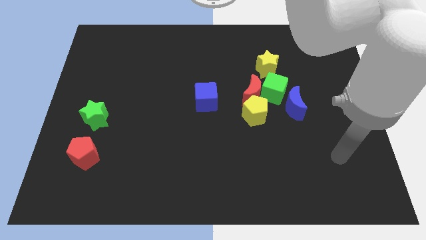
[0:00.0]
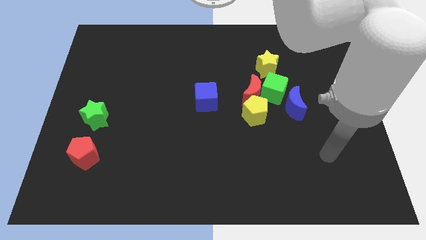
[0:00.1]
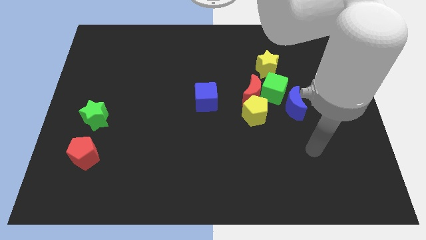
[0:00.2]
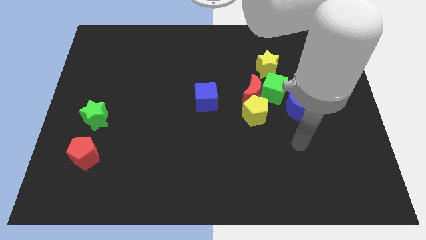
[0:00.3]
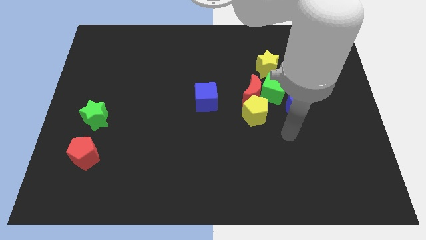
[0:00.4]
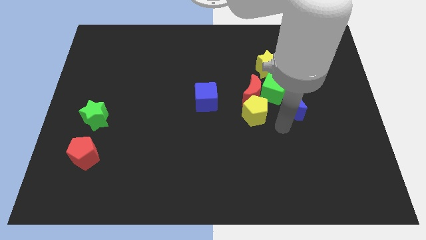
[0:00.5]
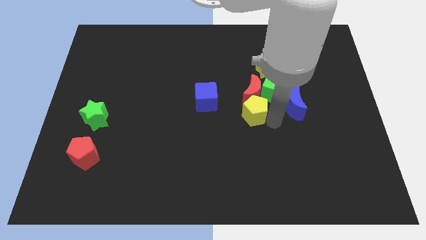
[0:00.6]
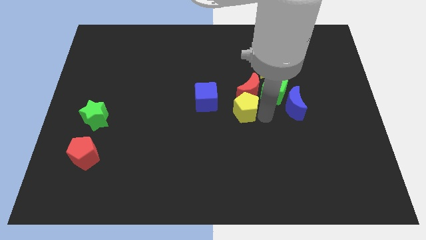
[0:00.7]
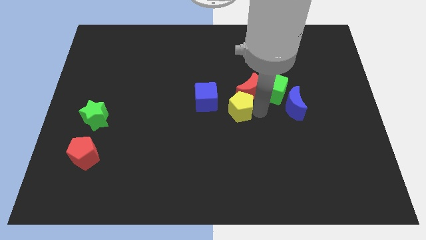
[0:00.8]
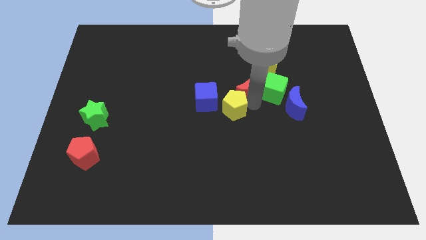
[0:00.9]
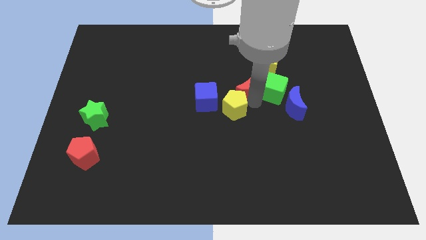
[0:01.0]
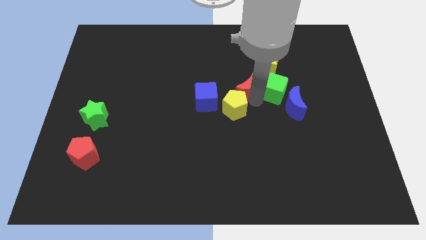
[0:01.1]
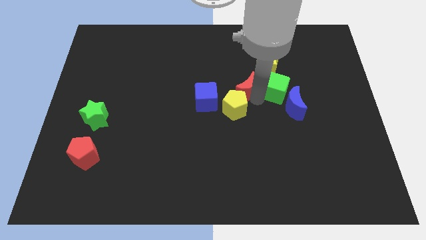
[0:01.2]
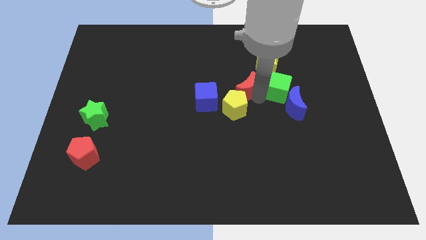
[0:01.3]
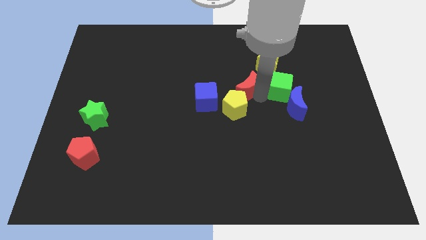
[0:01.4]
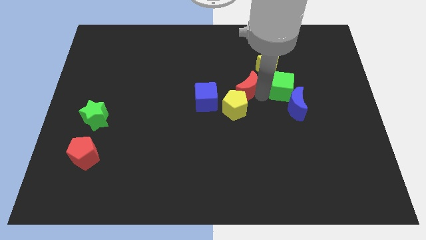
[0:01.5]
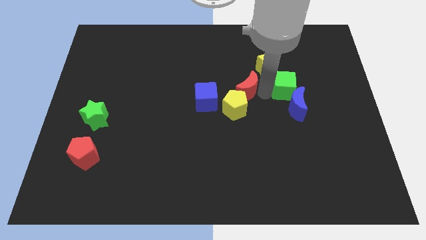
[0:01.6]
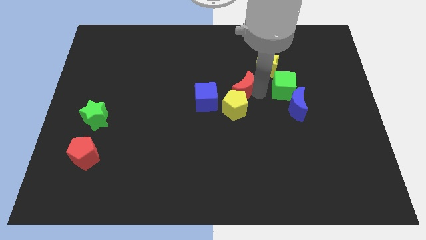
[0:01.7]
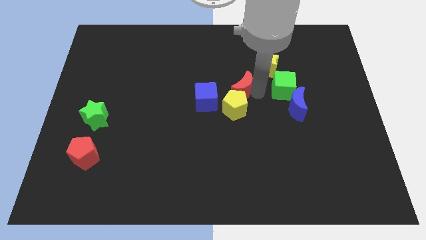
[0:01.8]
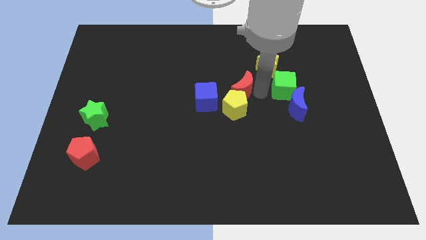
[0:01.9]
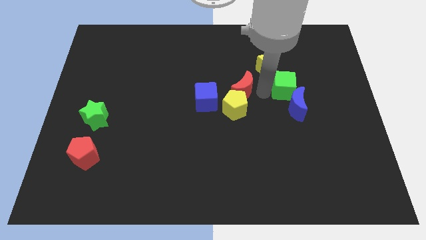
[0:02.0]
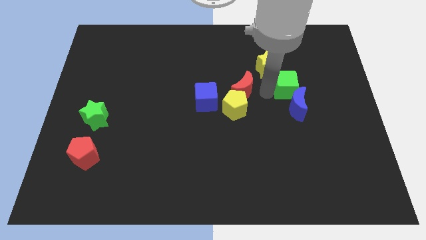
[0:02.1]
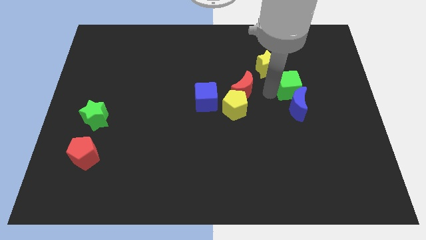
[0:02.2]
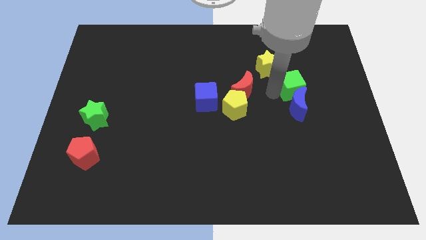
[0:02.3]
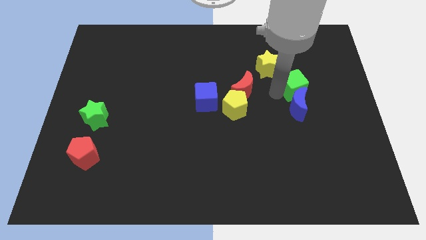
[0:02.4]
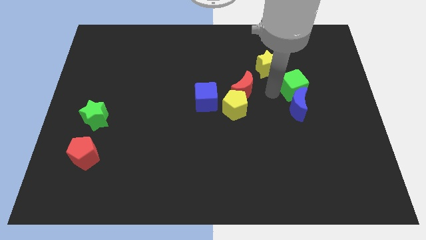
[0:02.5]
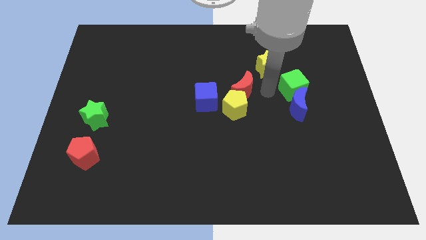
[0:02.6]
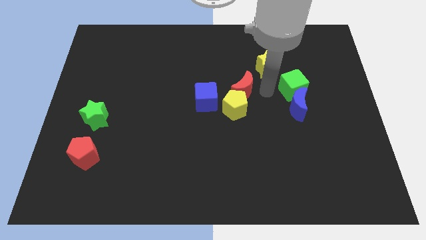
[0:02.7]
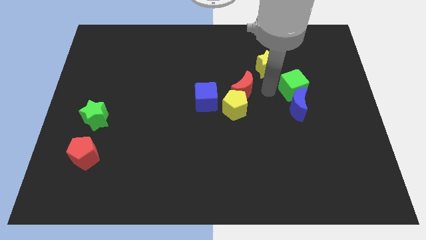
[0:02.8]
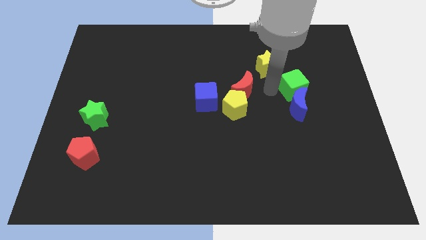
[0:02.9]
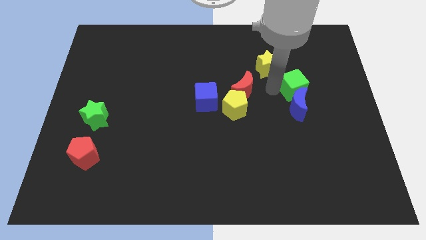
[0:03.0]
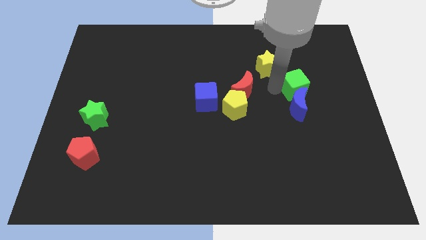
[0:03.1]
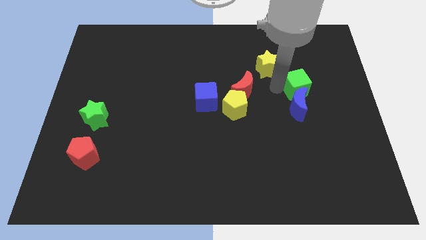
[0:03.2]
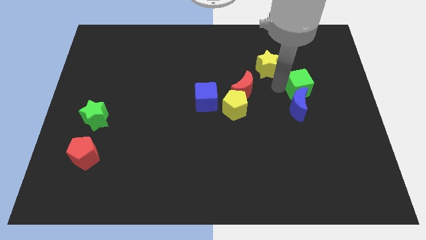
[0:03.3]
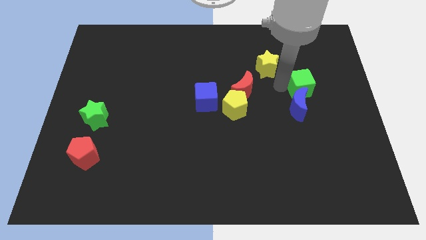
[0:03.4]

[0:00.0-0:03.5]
move the green cube away from the group of blocks

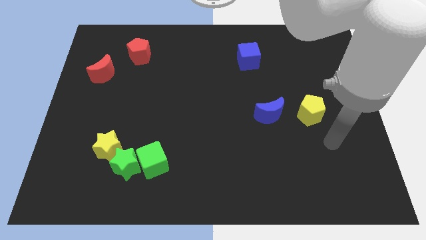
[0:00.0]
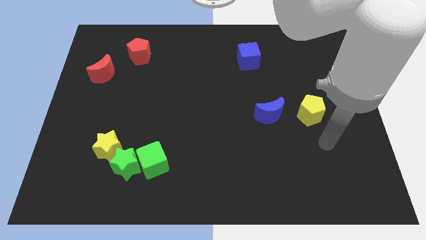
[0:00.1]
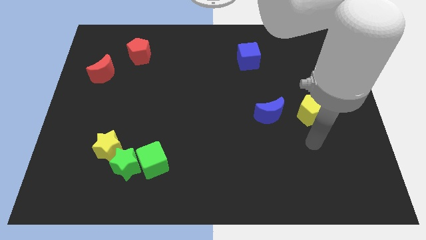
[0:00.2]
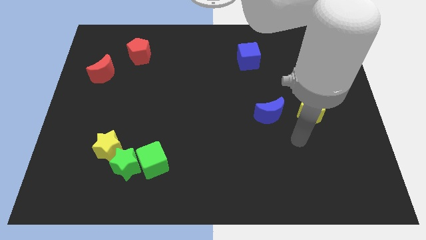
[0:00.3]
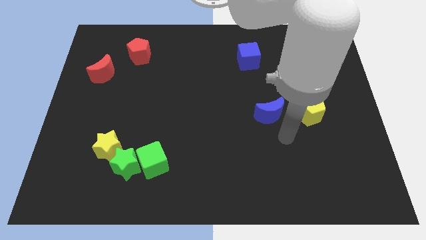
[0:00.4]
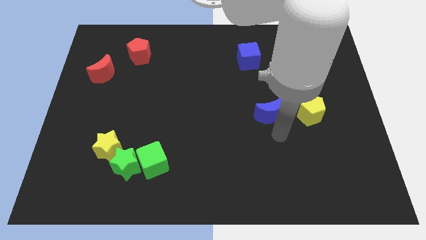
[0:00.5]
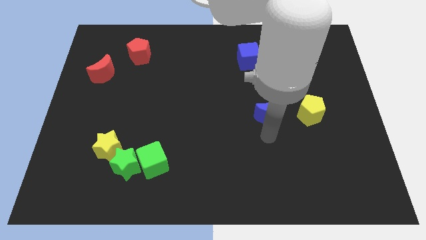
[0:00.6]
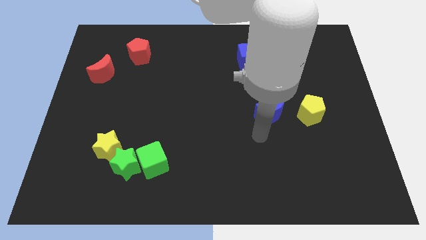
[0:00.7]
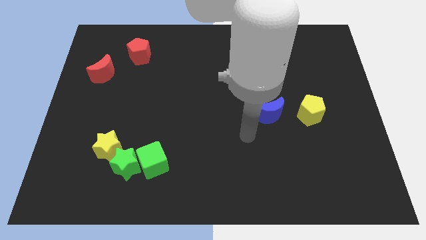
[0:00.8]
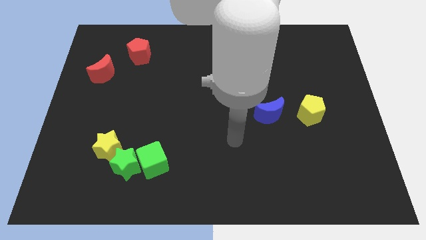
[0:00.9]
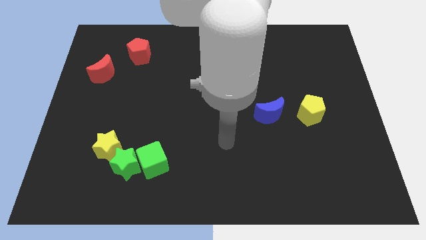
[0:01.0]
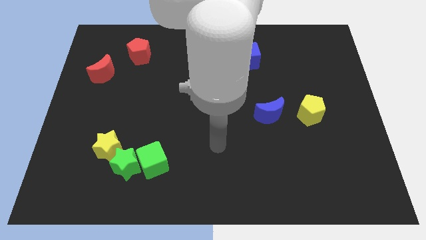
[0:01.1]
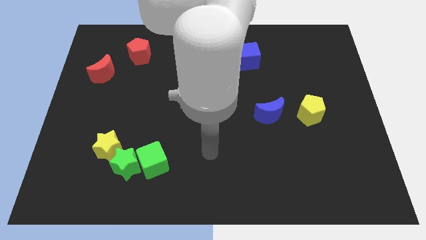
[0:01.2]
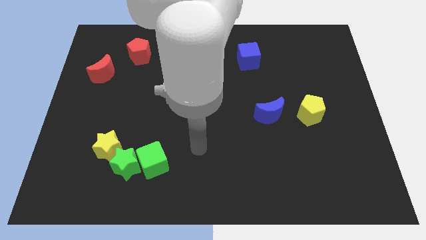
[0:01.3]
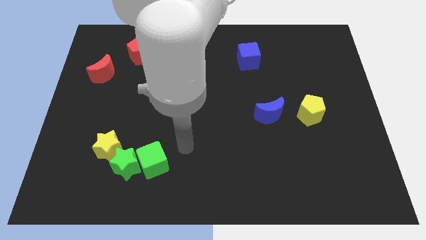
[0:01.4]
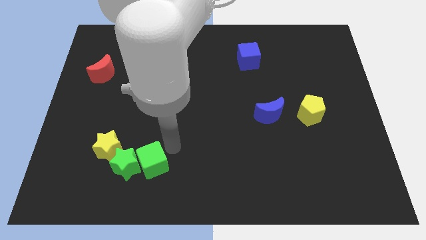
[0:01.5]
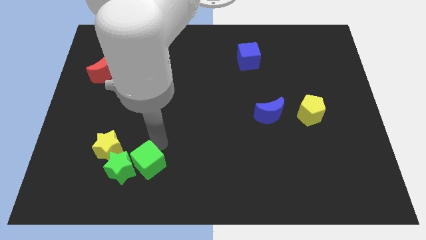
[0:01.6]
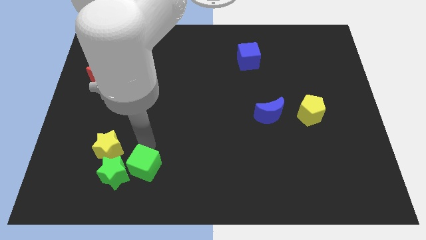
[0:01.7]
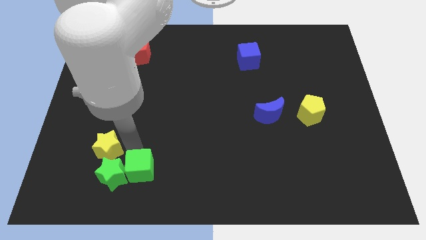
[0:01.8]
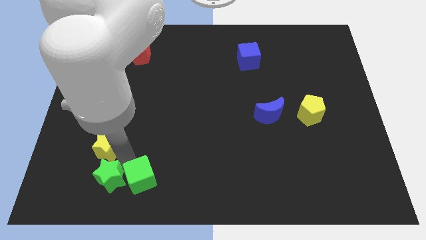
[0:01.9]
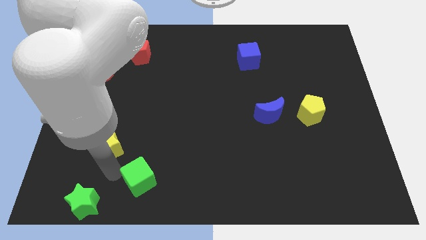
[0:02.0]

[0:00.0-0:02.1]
pull the green cube apart from the green star

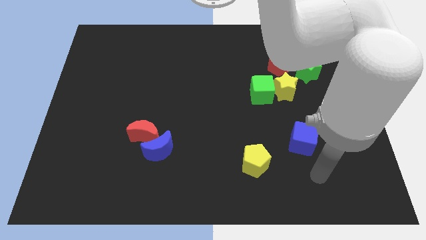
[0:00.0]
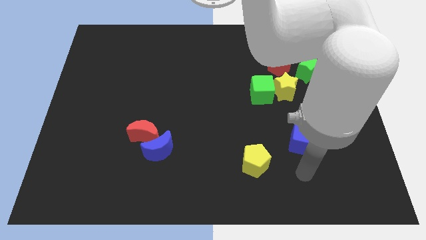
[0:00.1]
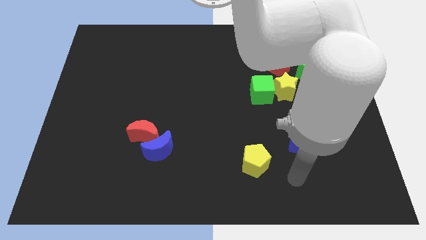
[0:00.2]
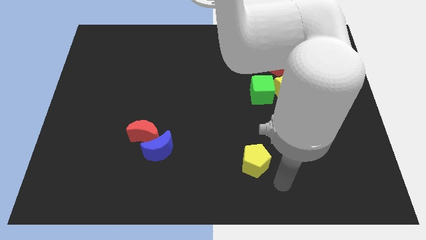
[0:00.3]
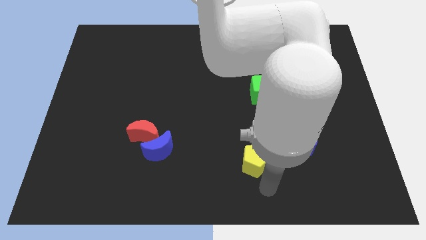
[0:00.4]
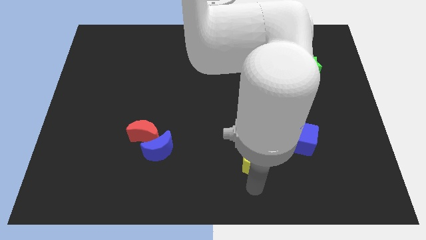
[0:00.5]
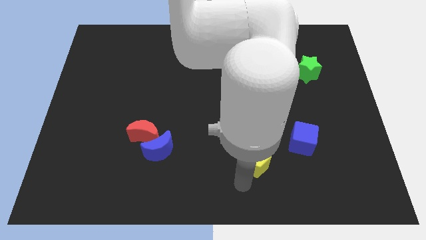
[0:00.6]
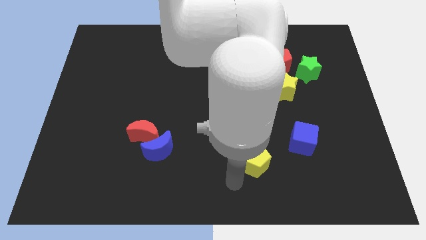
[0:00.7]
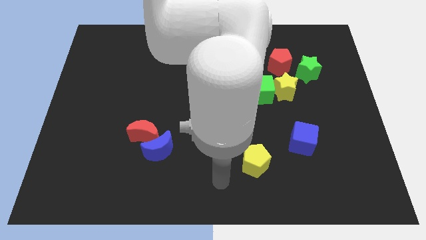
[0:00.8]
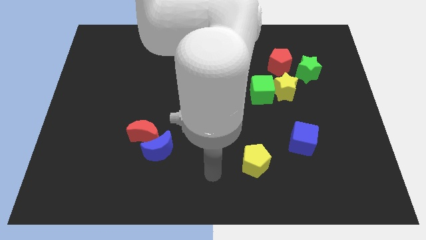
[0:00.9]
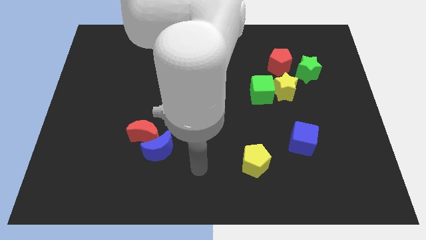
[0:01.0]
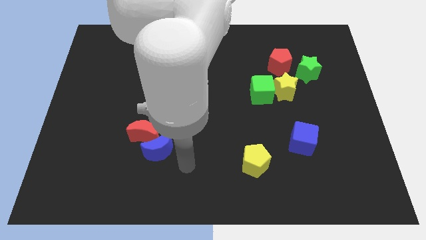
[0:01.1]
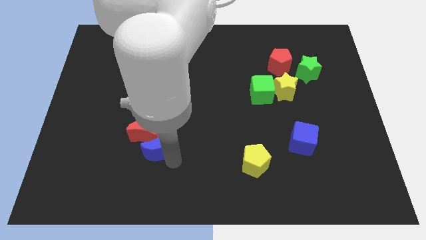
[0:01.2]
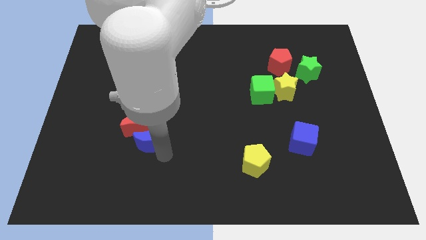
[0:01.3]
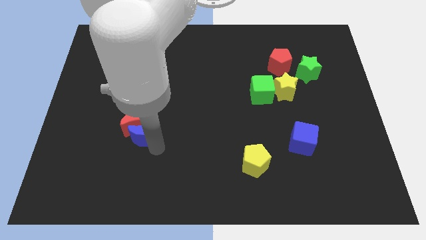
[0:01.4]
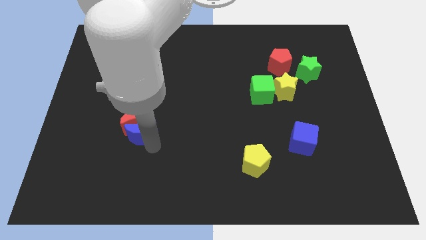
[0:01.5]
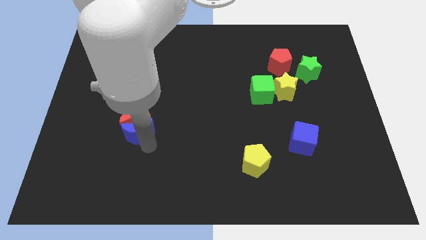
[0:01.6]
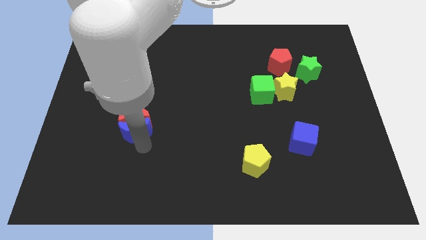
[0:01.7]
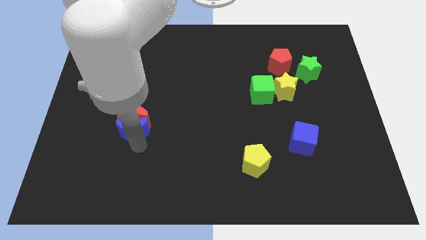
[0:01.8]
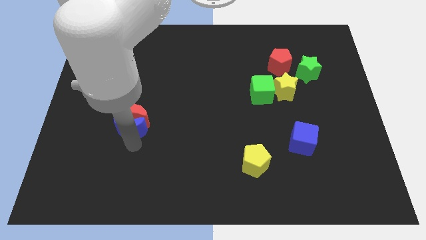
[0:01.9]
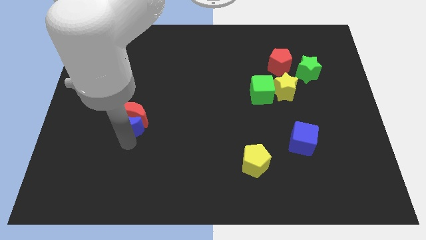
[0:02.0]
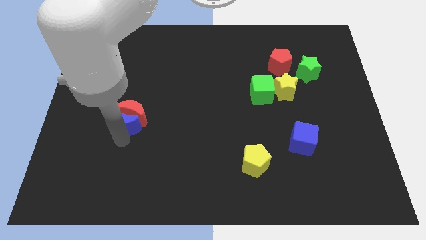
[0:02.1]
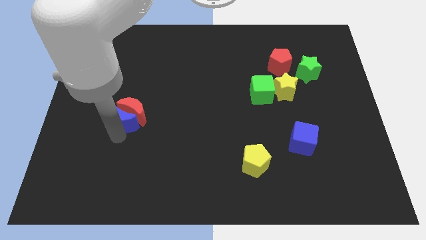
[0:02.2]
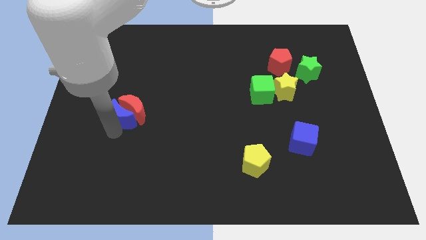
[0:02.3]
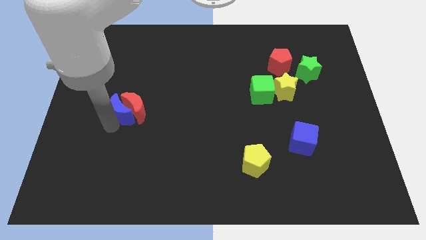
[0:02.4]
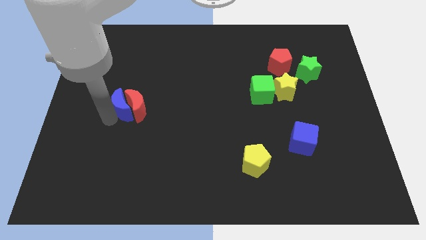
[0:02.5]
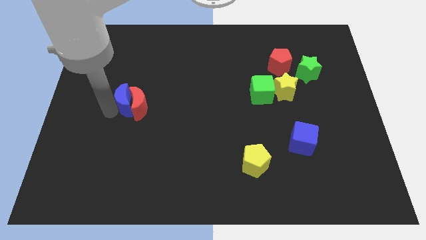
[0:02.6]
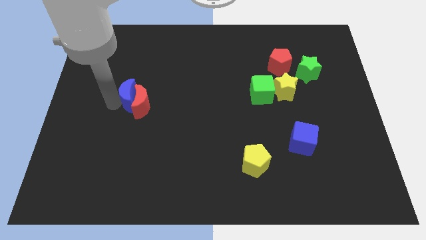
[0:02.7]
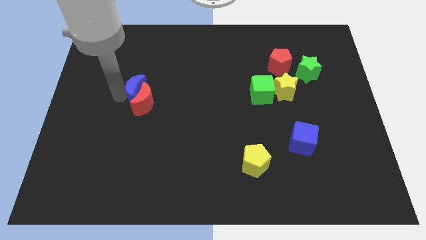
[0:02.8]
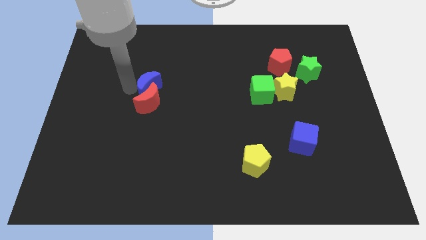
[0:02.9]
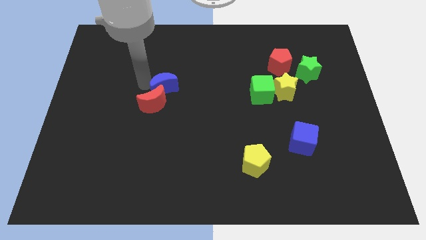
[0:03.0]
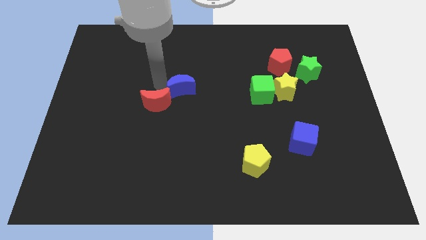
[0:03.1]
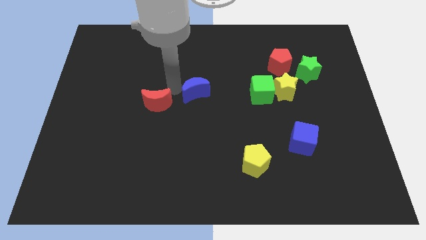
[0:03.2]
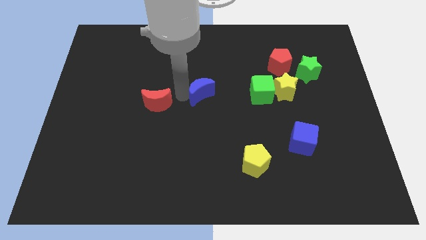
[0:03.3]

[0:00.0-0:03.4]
move the red moon away from the blue moon

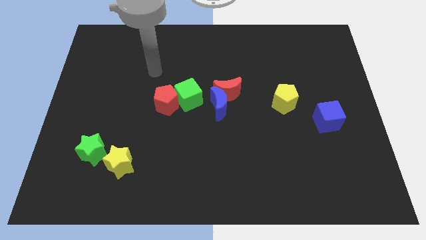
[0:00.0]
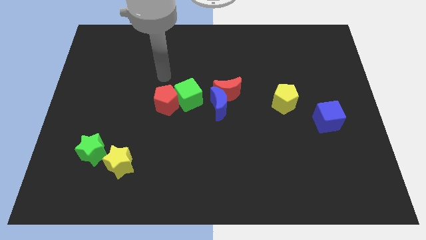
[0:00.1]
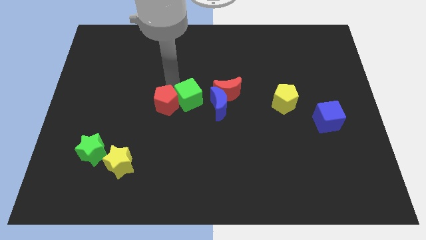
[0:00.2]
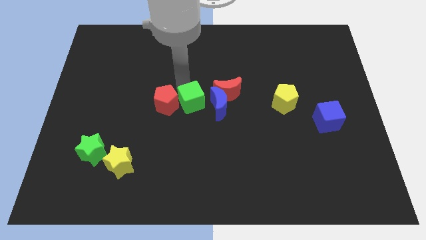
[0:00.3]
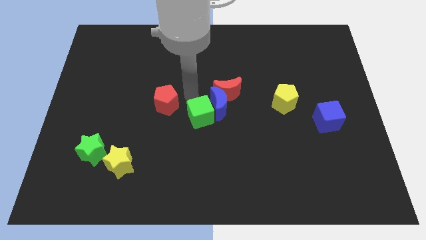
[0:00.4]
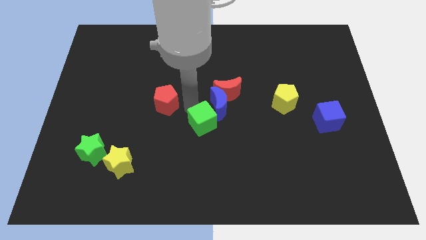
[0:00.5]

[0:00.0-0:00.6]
separate the red pentagon from the green cube
